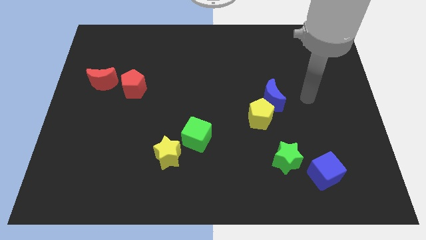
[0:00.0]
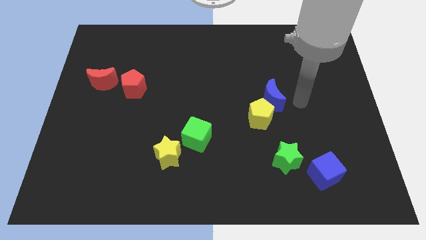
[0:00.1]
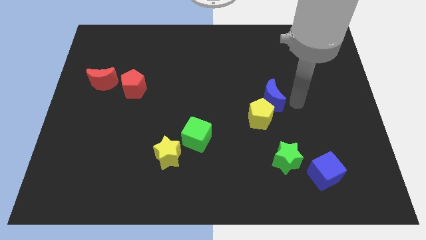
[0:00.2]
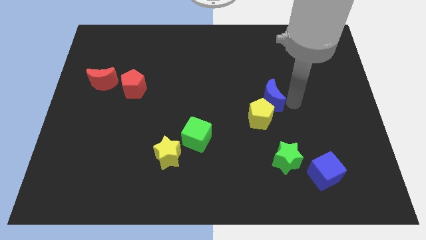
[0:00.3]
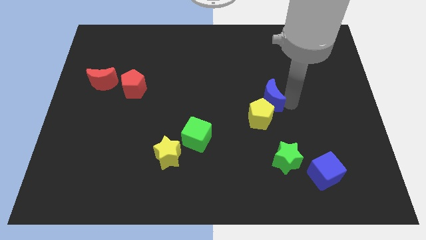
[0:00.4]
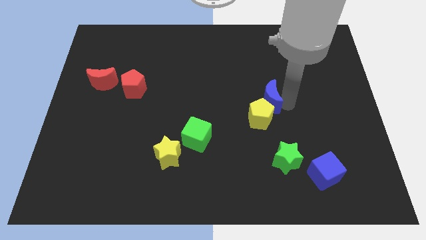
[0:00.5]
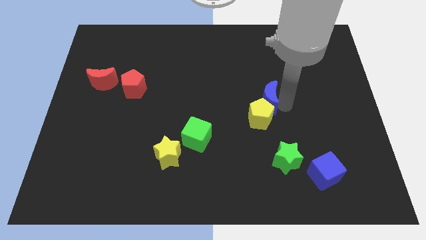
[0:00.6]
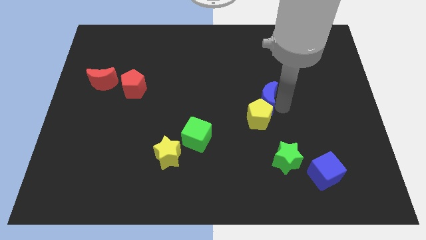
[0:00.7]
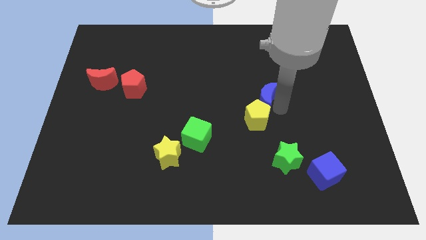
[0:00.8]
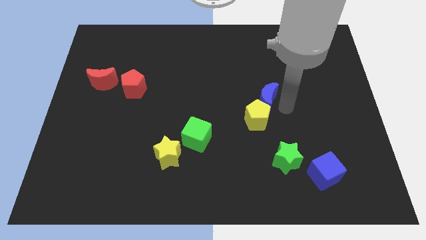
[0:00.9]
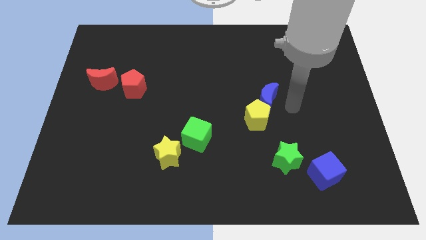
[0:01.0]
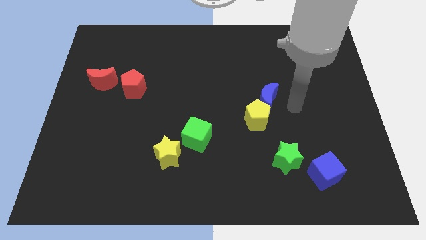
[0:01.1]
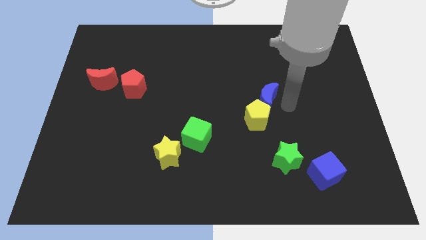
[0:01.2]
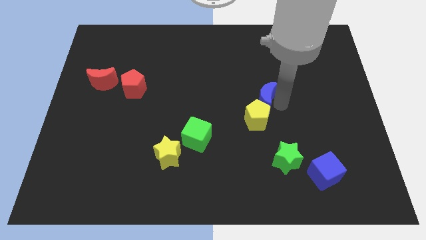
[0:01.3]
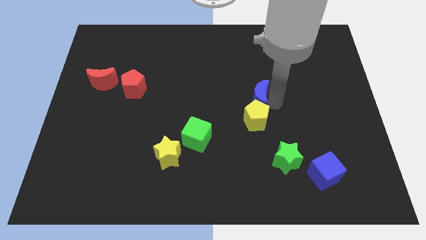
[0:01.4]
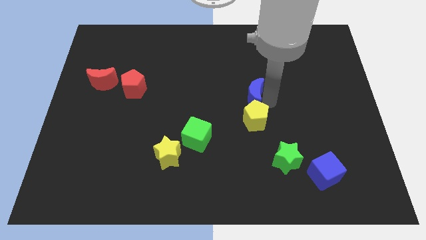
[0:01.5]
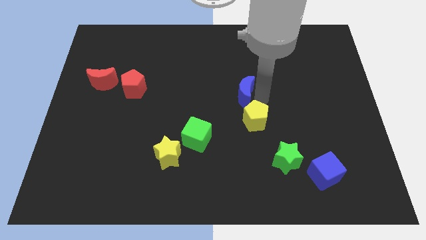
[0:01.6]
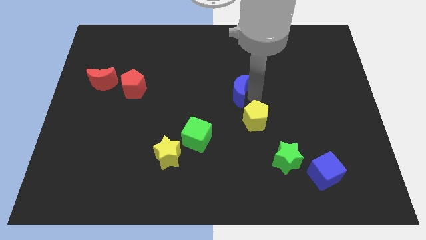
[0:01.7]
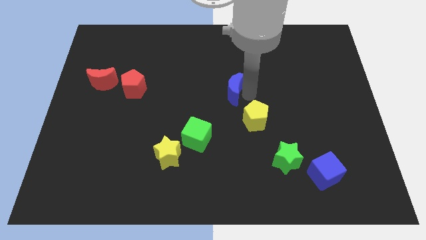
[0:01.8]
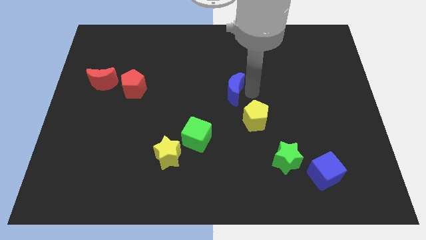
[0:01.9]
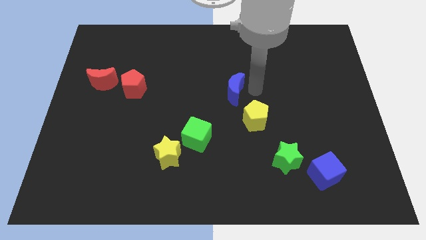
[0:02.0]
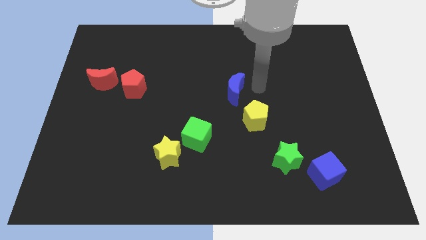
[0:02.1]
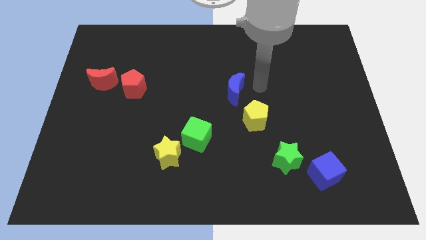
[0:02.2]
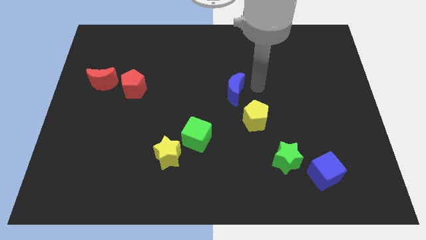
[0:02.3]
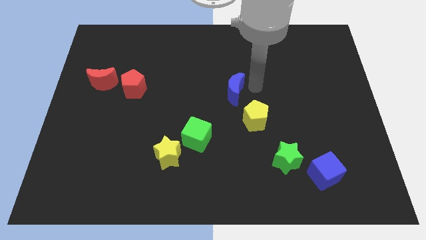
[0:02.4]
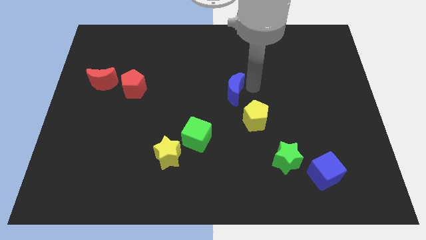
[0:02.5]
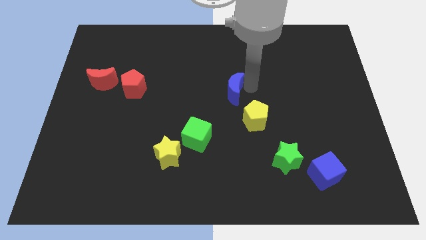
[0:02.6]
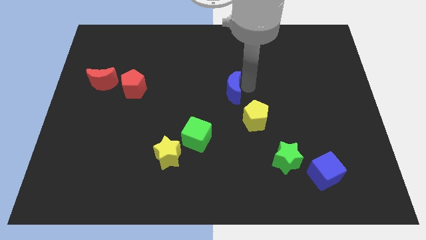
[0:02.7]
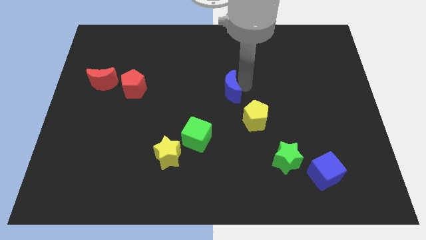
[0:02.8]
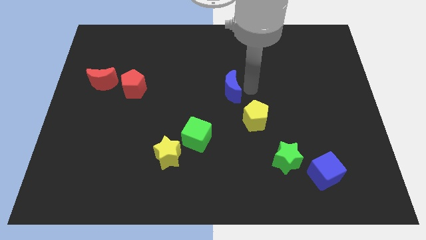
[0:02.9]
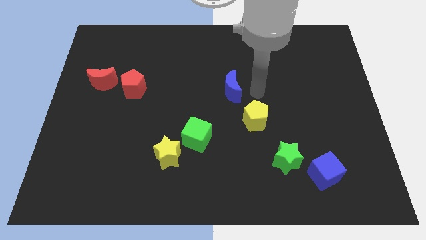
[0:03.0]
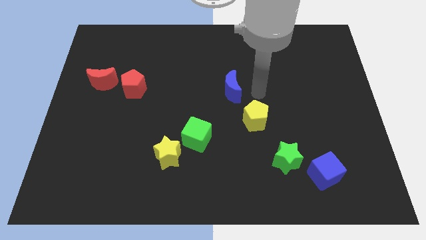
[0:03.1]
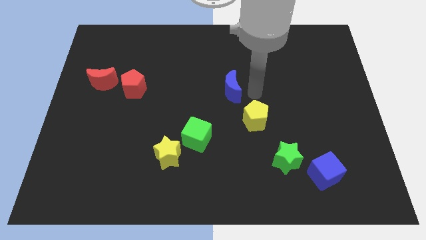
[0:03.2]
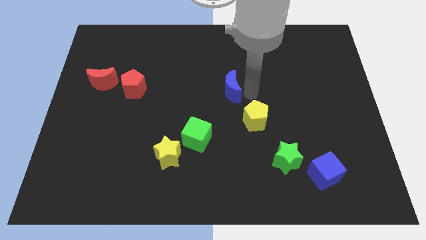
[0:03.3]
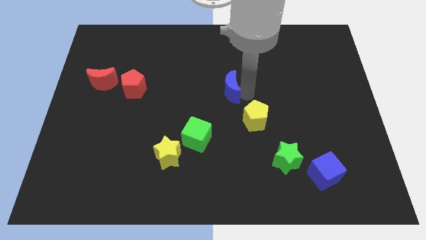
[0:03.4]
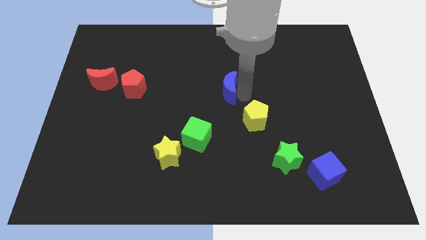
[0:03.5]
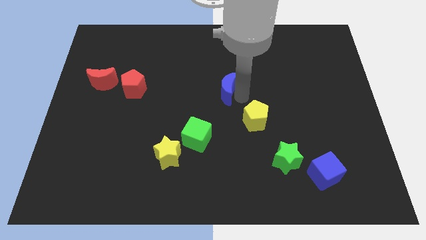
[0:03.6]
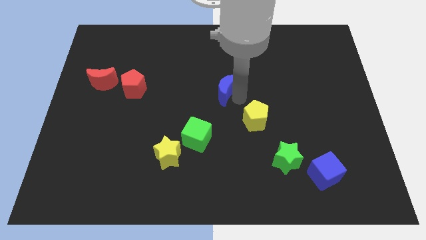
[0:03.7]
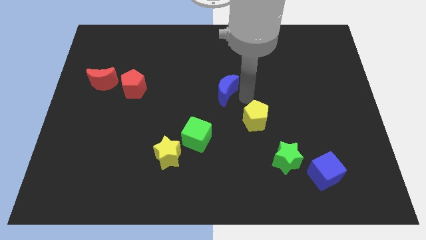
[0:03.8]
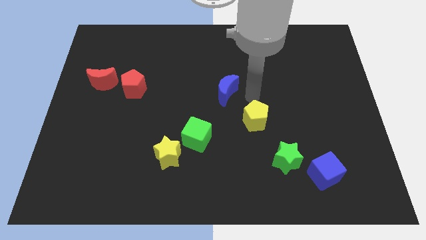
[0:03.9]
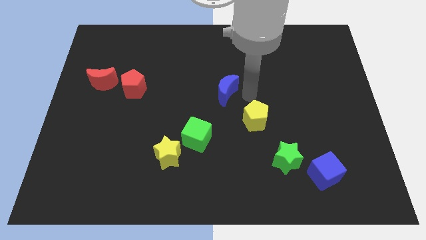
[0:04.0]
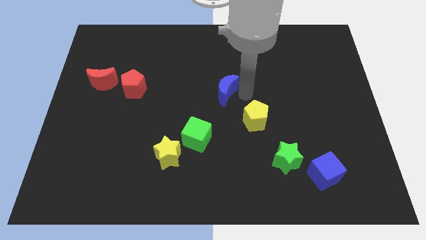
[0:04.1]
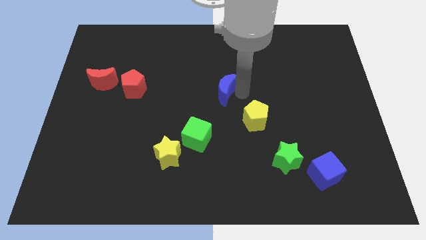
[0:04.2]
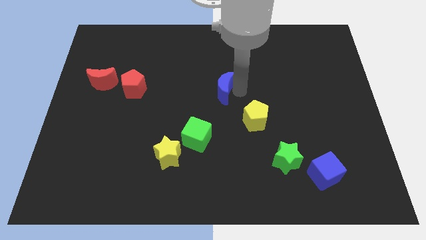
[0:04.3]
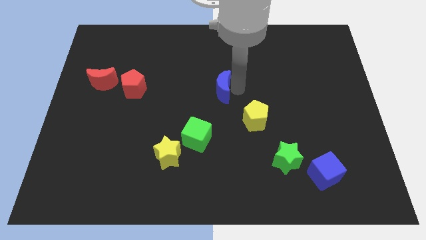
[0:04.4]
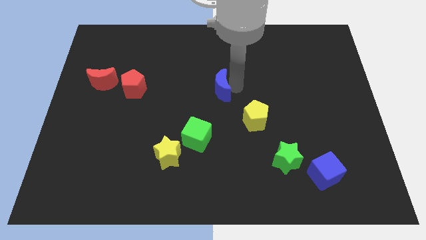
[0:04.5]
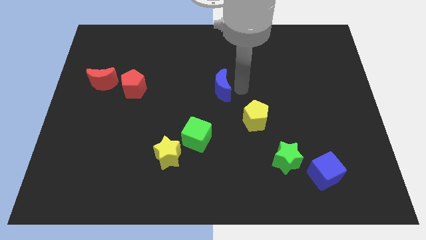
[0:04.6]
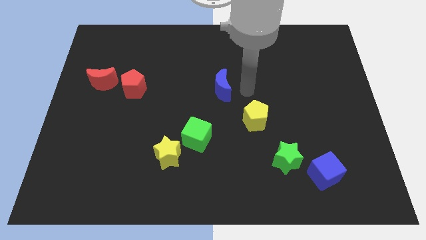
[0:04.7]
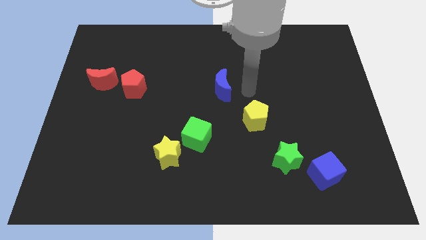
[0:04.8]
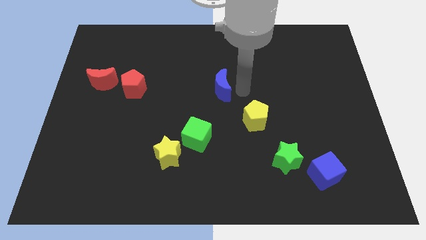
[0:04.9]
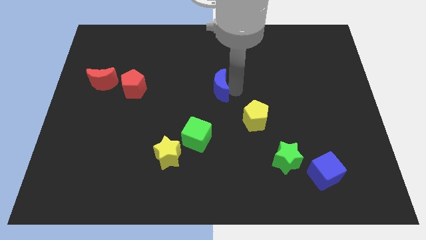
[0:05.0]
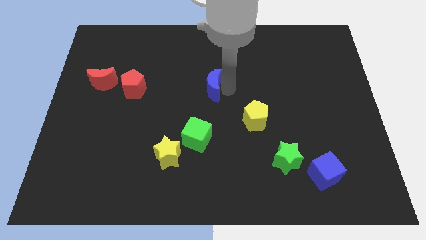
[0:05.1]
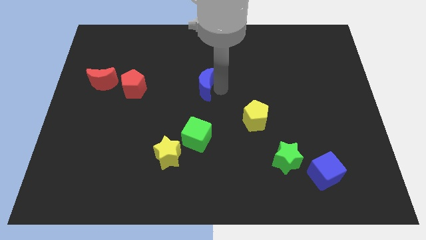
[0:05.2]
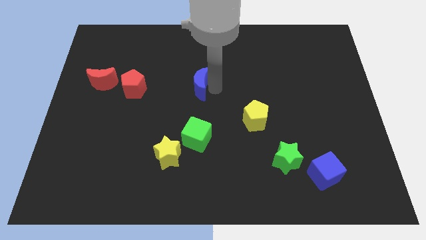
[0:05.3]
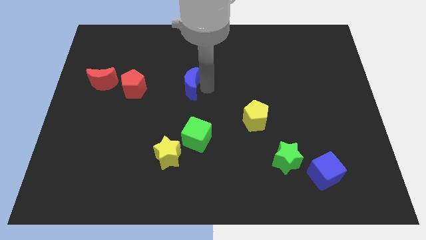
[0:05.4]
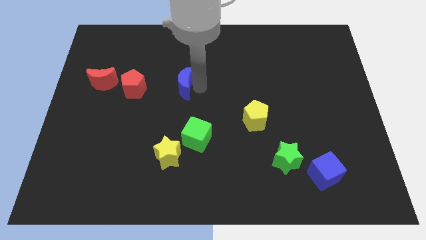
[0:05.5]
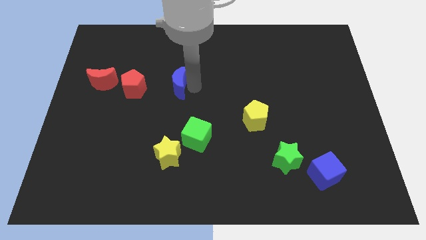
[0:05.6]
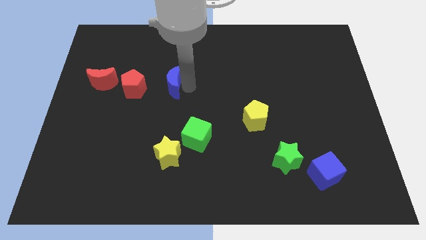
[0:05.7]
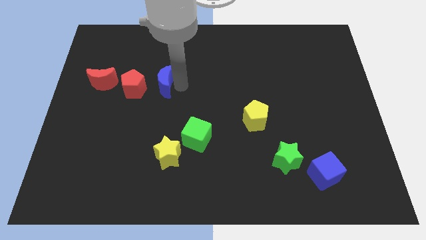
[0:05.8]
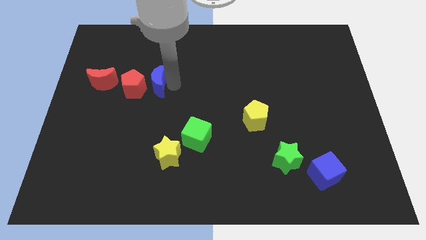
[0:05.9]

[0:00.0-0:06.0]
slide the blue moon to the red pentagon

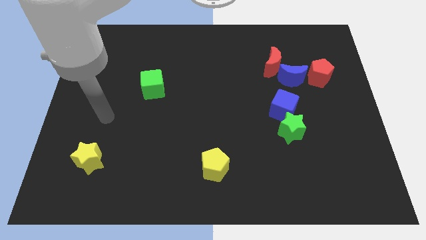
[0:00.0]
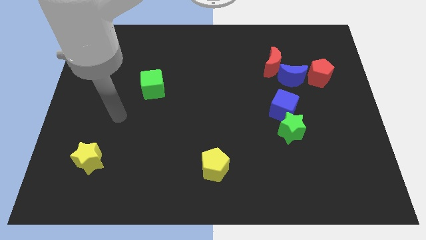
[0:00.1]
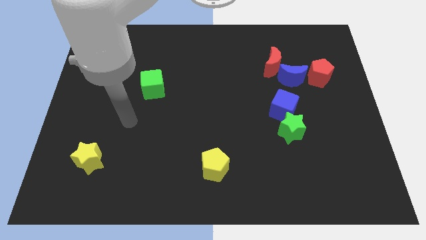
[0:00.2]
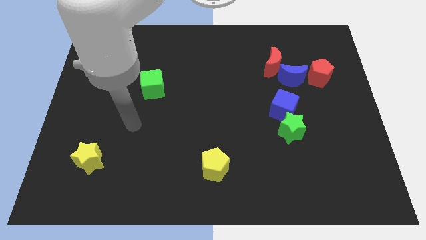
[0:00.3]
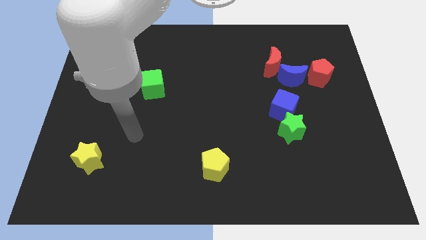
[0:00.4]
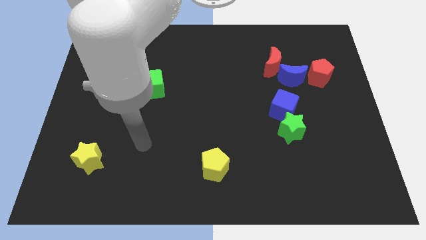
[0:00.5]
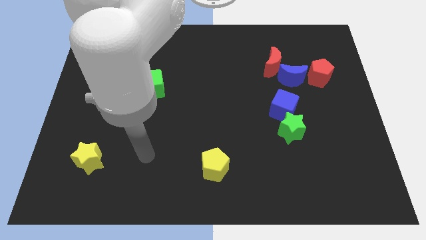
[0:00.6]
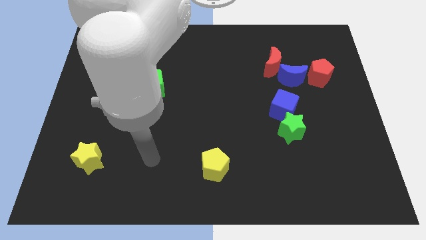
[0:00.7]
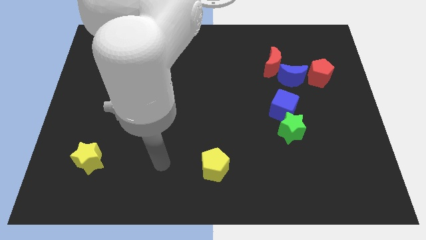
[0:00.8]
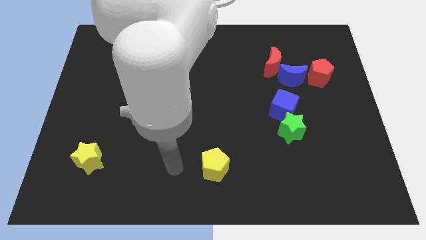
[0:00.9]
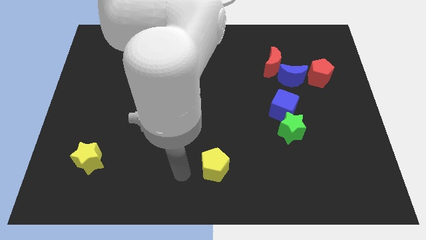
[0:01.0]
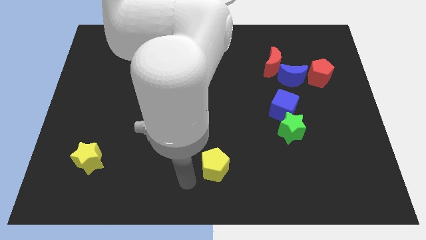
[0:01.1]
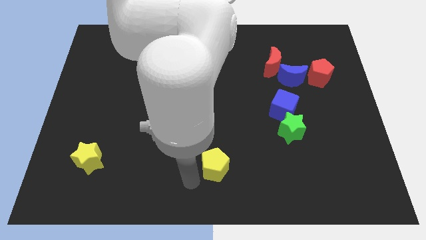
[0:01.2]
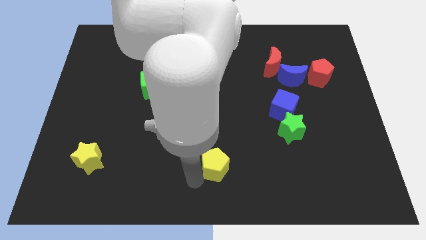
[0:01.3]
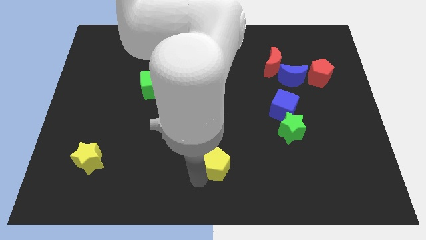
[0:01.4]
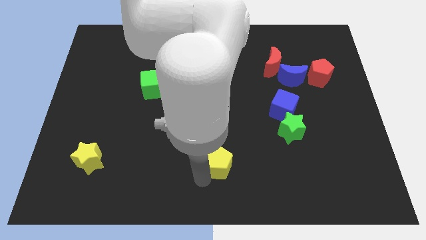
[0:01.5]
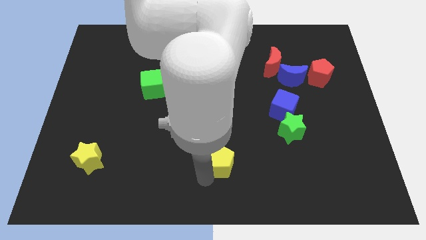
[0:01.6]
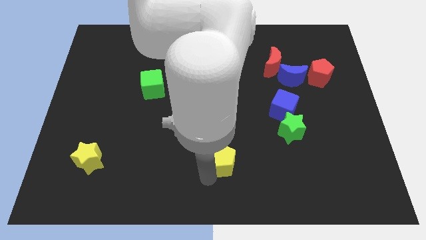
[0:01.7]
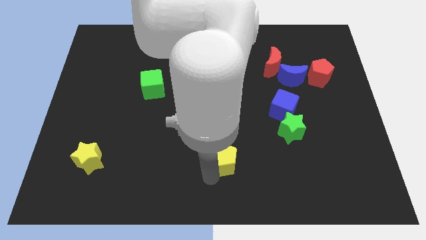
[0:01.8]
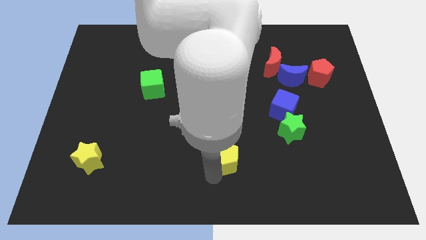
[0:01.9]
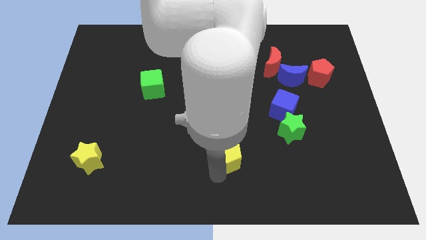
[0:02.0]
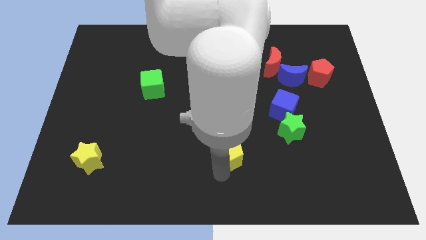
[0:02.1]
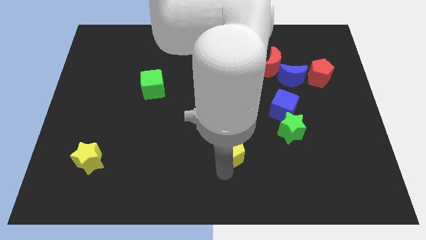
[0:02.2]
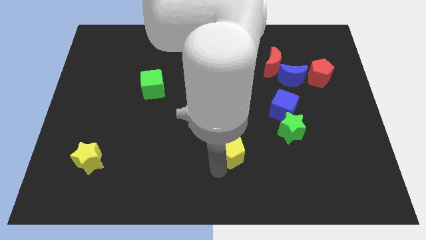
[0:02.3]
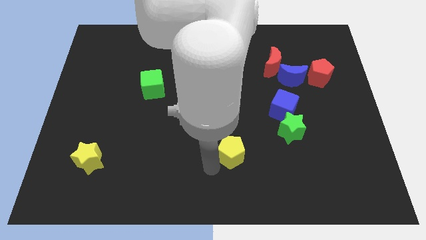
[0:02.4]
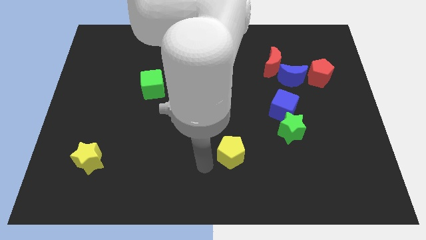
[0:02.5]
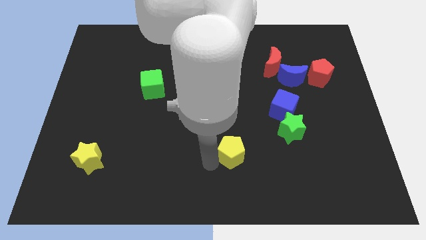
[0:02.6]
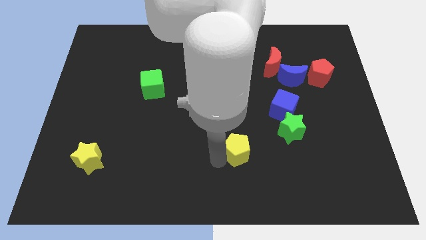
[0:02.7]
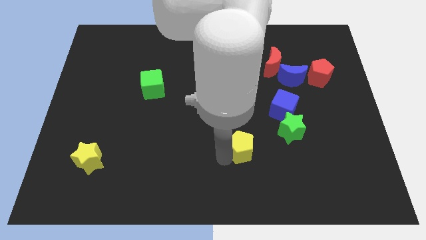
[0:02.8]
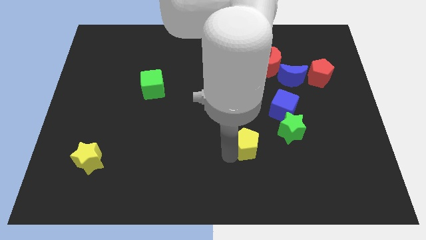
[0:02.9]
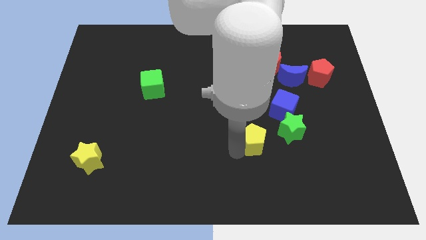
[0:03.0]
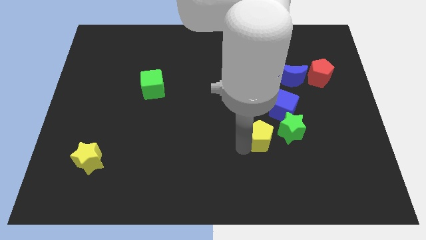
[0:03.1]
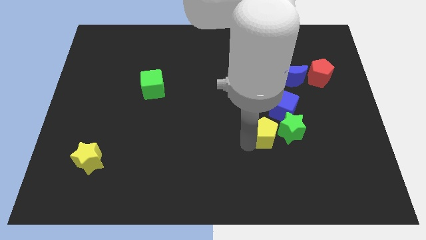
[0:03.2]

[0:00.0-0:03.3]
move the yellow pentagon to the green star
